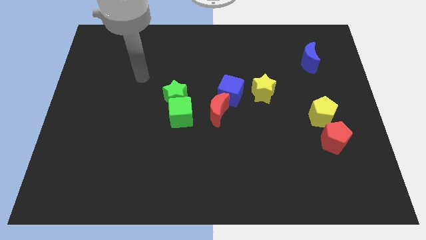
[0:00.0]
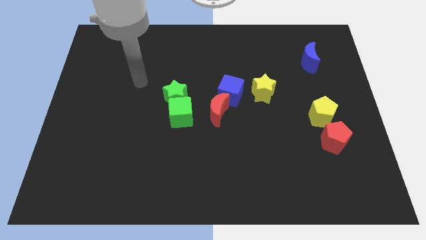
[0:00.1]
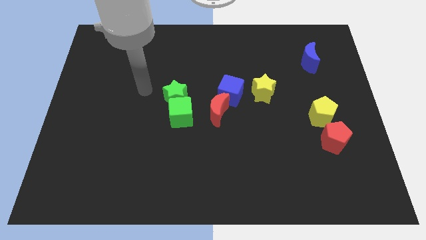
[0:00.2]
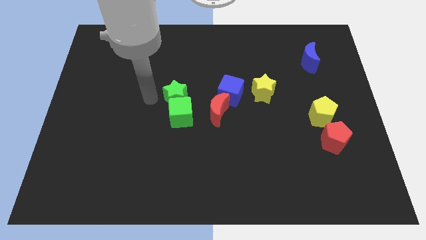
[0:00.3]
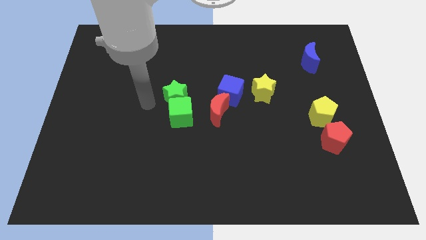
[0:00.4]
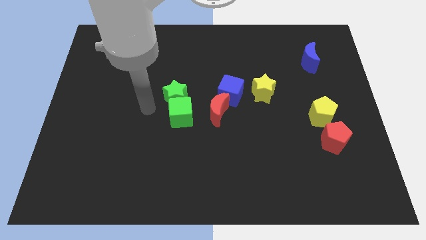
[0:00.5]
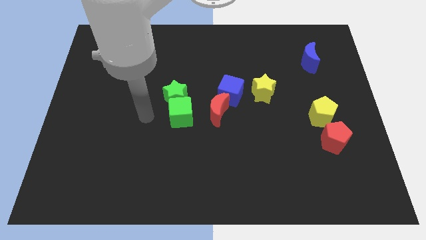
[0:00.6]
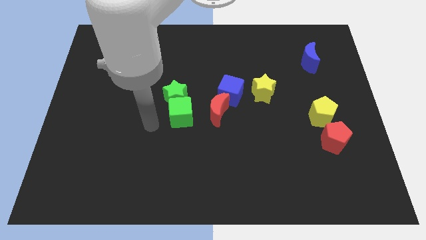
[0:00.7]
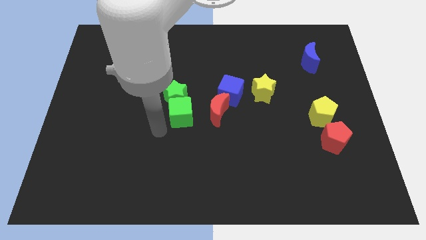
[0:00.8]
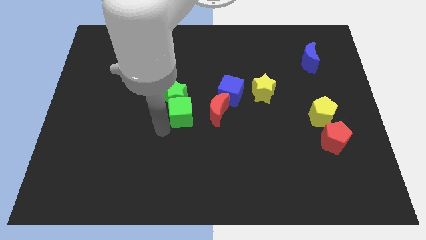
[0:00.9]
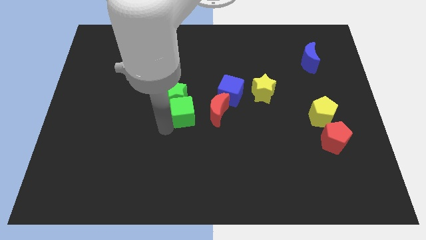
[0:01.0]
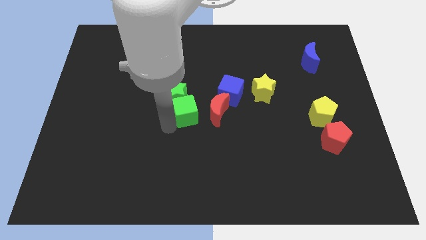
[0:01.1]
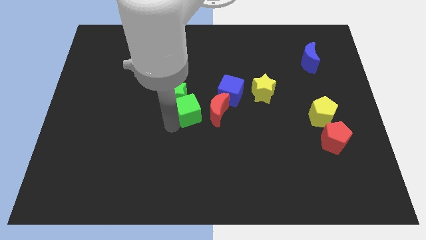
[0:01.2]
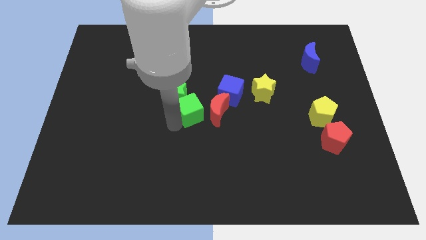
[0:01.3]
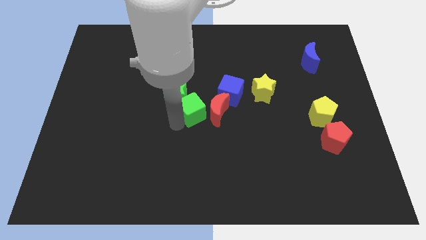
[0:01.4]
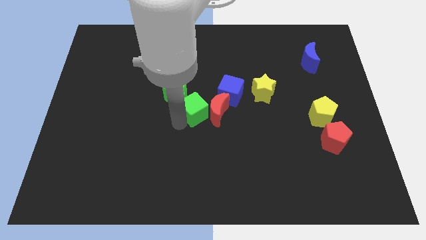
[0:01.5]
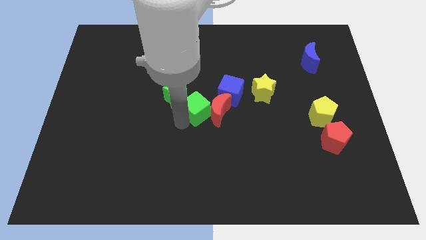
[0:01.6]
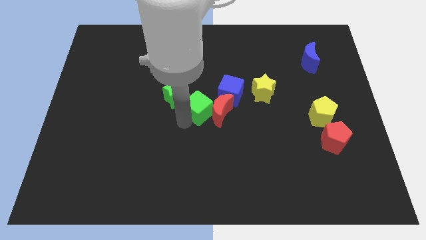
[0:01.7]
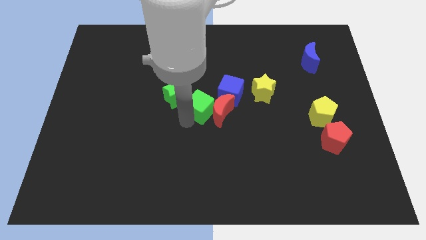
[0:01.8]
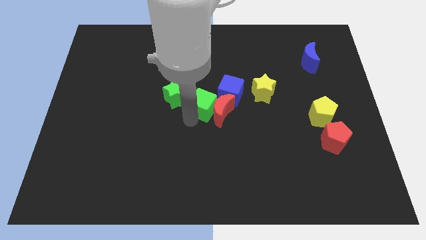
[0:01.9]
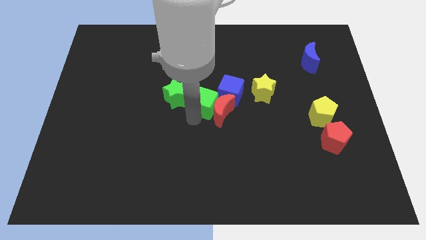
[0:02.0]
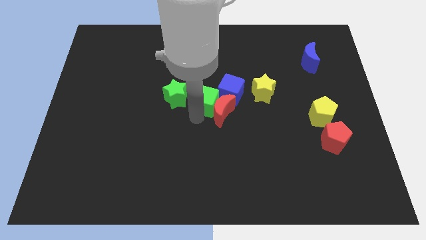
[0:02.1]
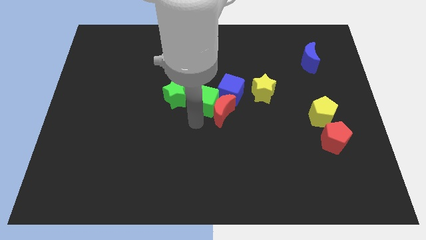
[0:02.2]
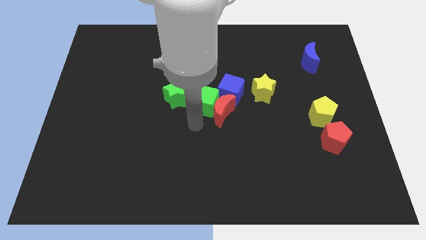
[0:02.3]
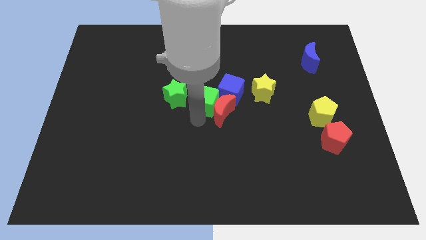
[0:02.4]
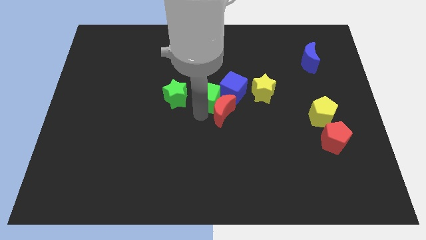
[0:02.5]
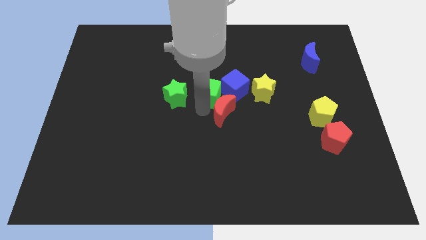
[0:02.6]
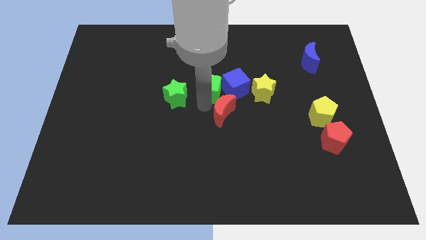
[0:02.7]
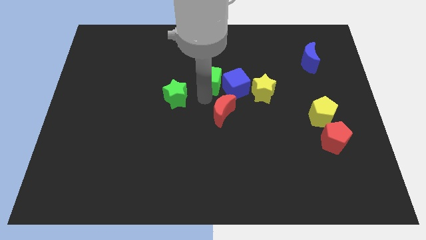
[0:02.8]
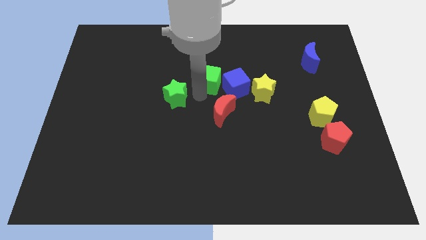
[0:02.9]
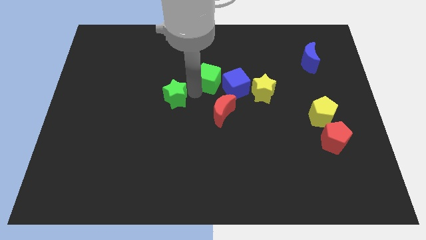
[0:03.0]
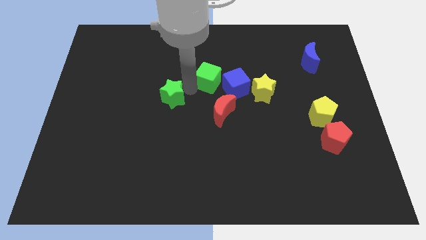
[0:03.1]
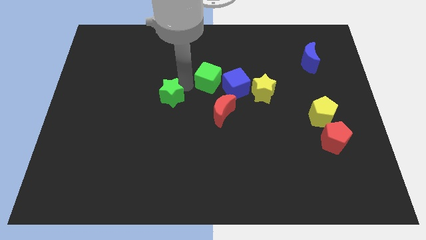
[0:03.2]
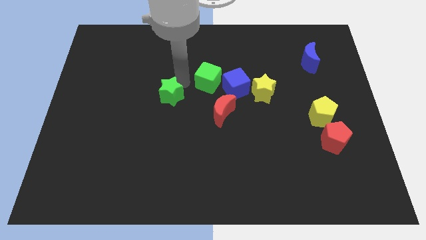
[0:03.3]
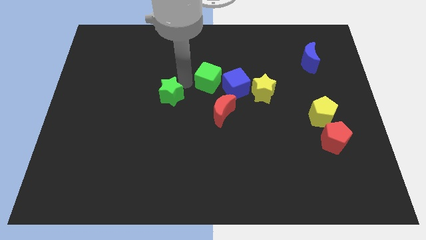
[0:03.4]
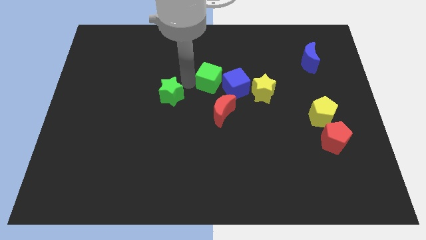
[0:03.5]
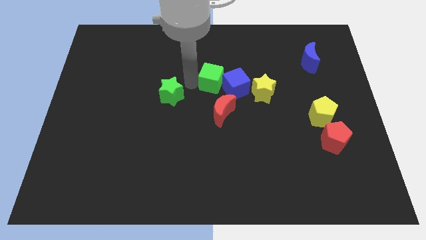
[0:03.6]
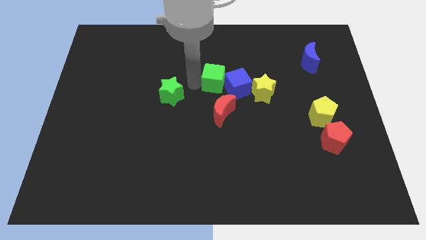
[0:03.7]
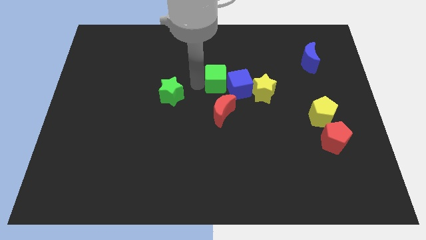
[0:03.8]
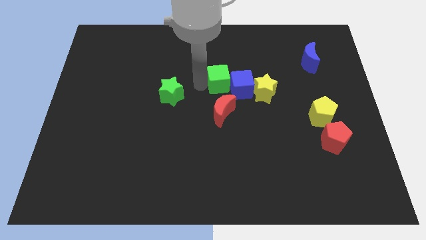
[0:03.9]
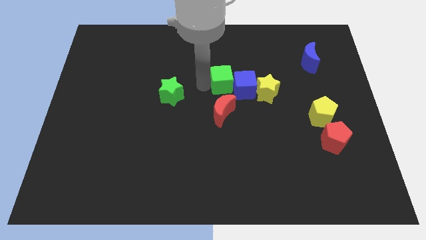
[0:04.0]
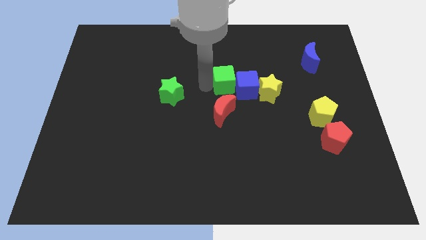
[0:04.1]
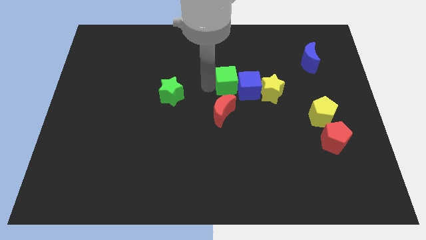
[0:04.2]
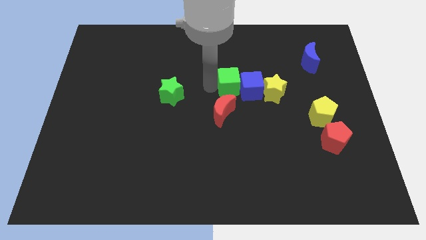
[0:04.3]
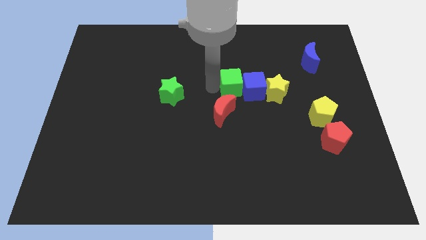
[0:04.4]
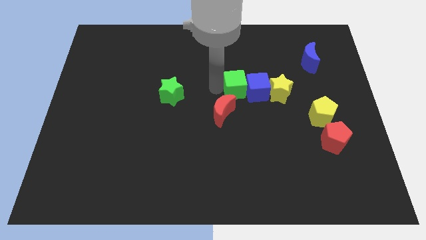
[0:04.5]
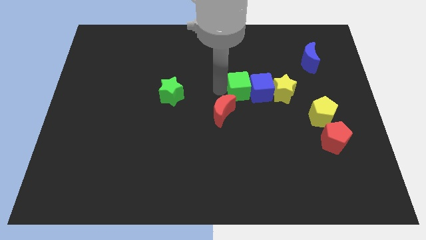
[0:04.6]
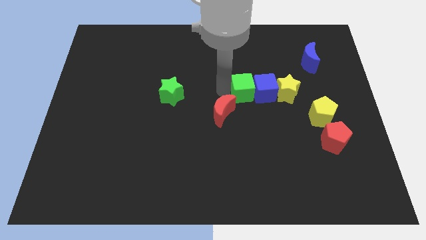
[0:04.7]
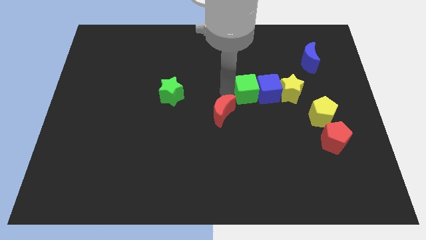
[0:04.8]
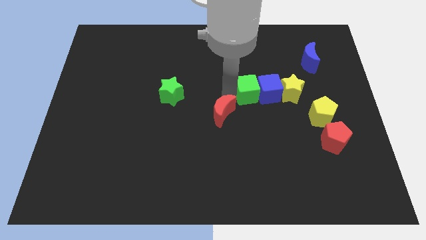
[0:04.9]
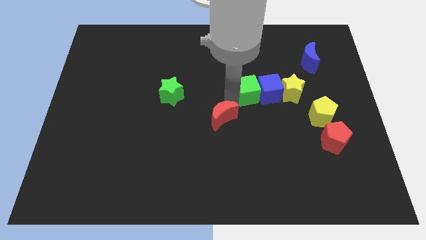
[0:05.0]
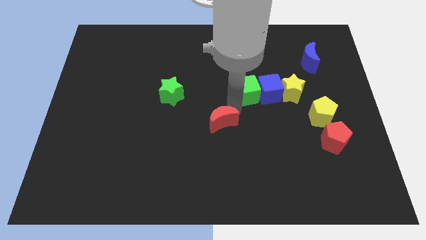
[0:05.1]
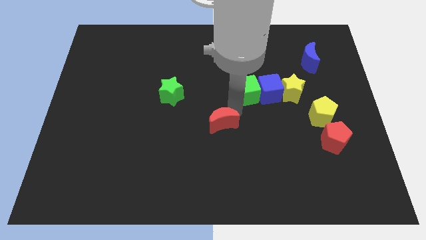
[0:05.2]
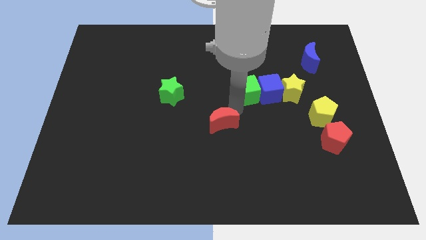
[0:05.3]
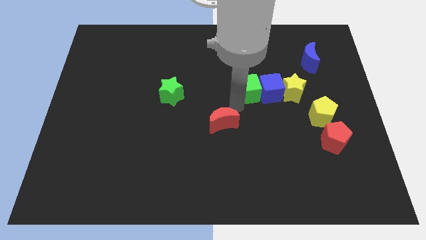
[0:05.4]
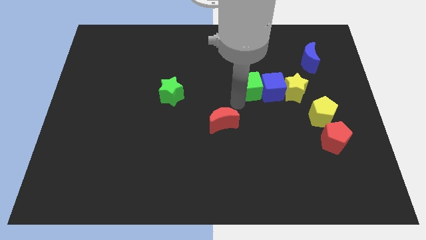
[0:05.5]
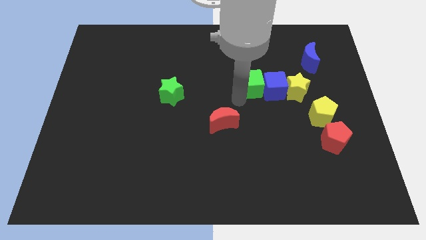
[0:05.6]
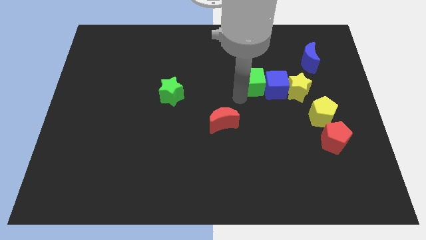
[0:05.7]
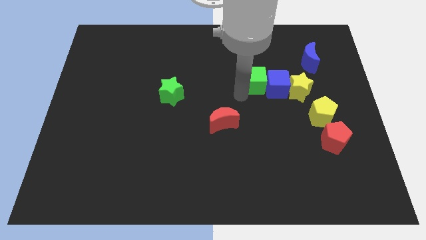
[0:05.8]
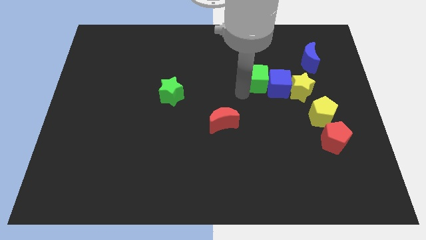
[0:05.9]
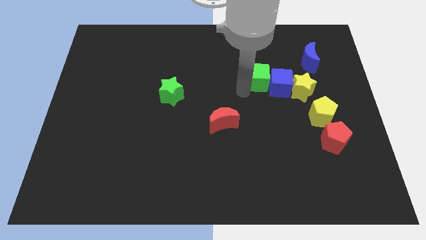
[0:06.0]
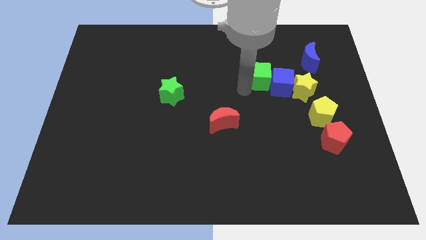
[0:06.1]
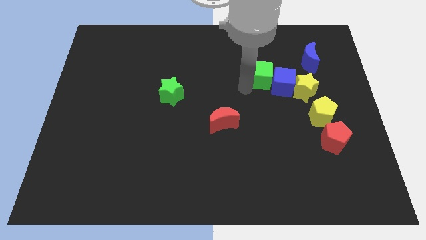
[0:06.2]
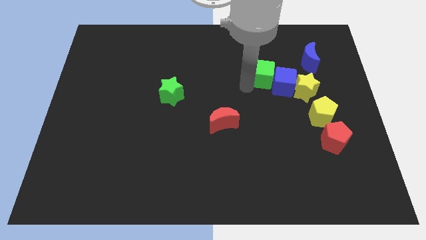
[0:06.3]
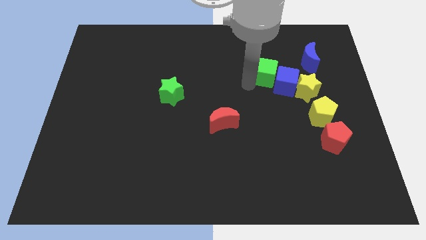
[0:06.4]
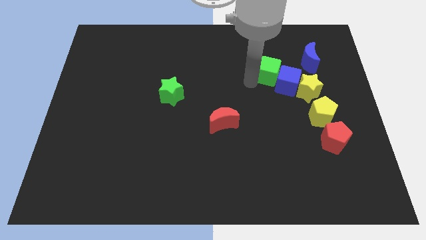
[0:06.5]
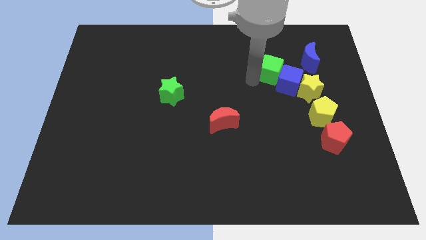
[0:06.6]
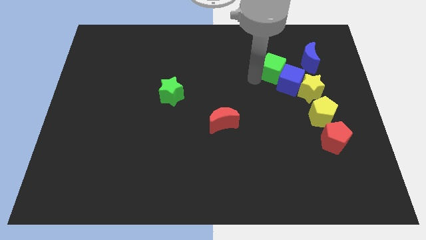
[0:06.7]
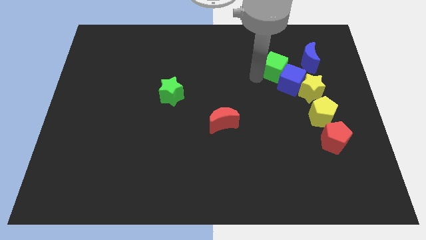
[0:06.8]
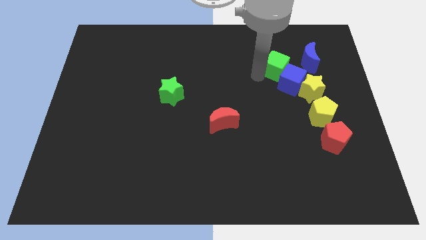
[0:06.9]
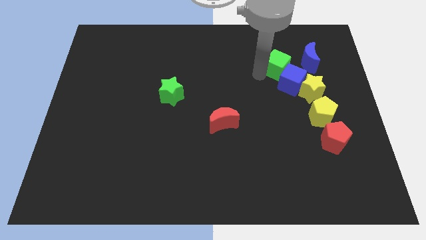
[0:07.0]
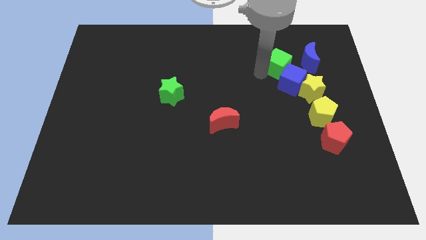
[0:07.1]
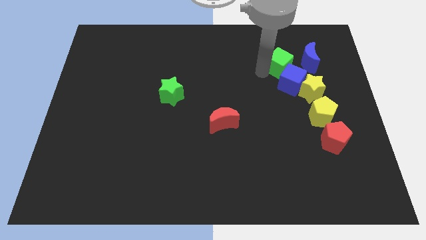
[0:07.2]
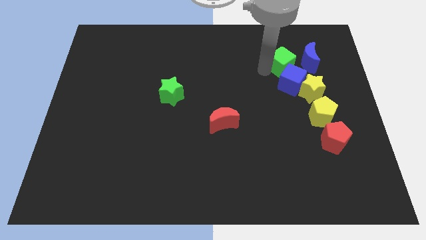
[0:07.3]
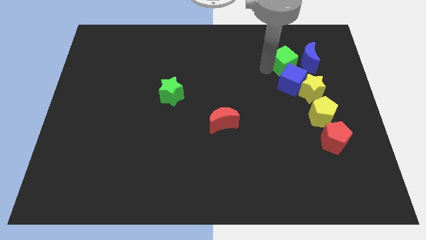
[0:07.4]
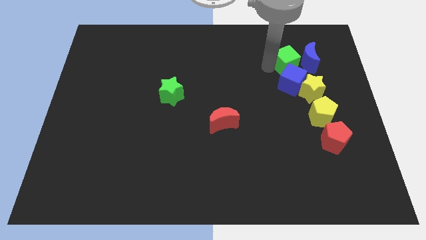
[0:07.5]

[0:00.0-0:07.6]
put the green cube to the blue moon

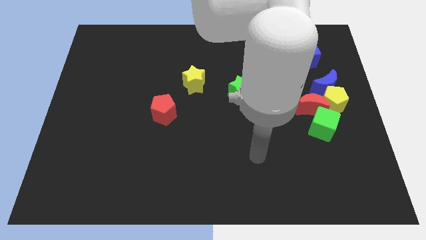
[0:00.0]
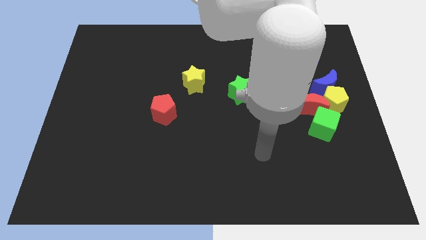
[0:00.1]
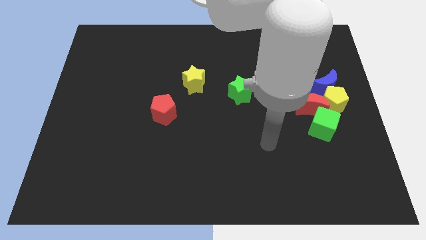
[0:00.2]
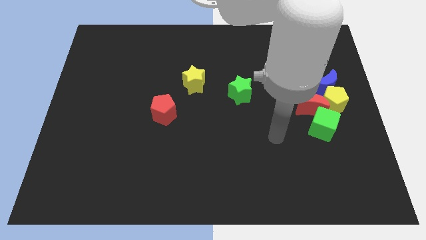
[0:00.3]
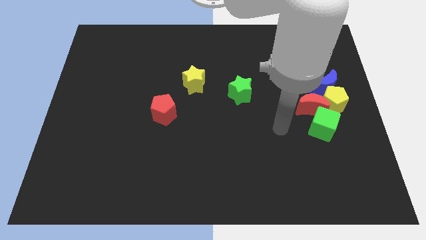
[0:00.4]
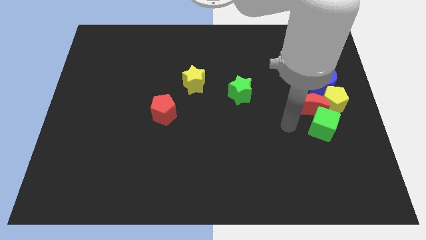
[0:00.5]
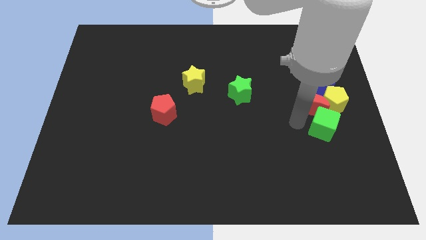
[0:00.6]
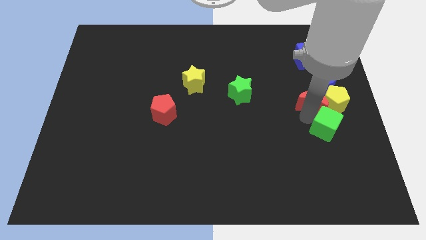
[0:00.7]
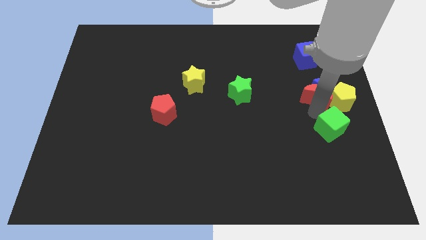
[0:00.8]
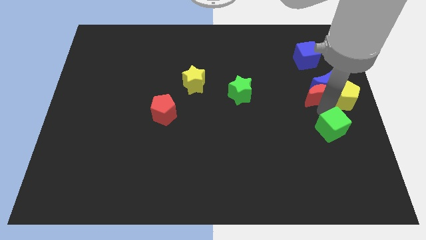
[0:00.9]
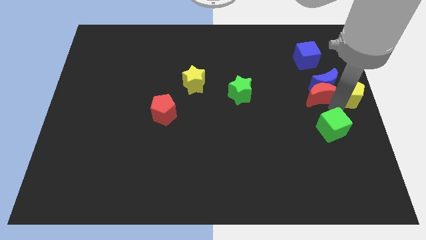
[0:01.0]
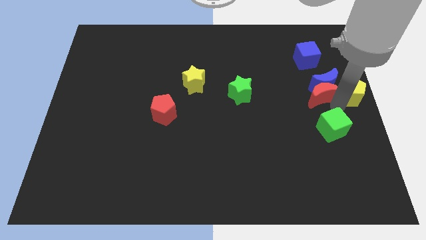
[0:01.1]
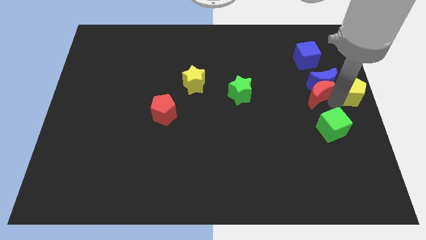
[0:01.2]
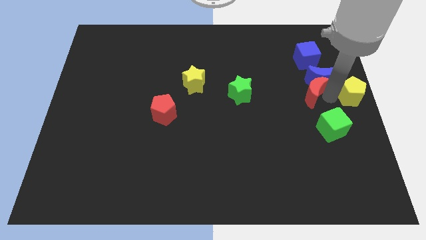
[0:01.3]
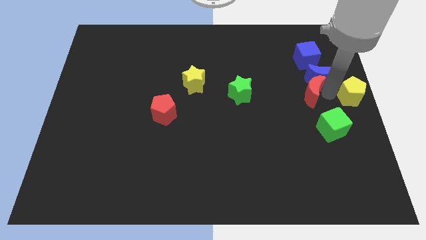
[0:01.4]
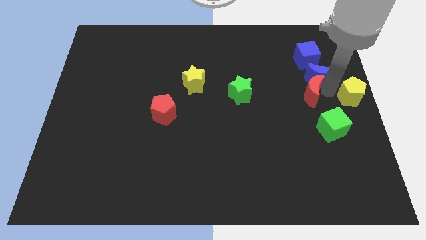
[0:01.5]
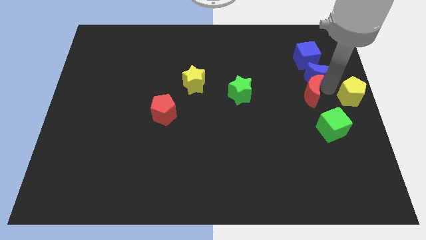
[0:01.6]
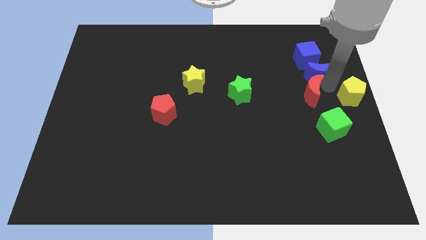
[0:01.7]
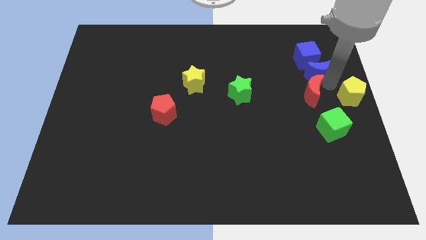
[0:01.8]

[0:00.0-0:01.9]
slide the blue moon to the blue cube
